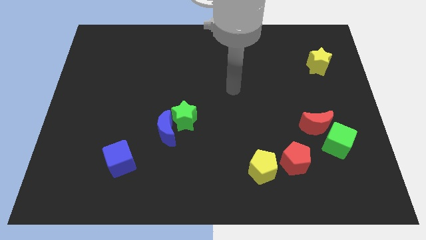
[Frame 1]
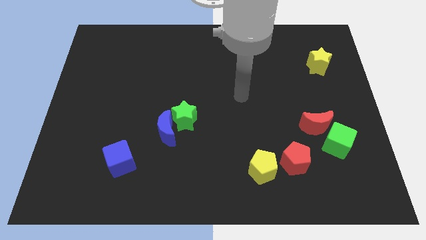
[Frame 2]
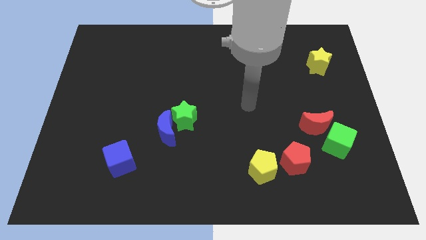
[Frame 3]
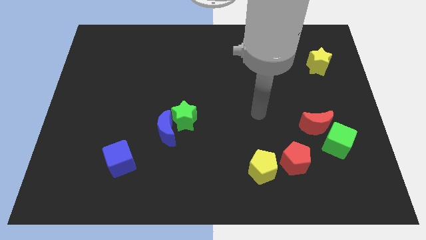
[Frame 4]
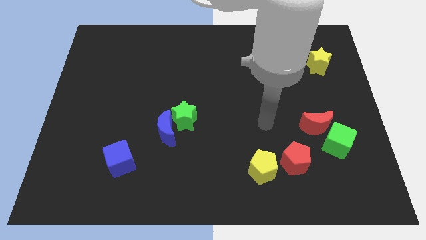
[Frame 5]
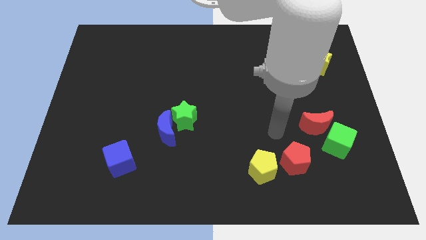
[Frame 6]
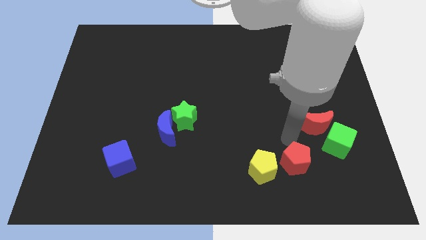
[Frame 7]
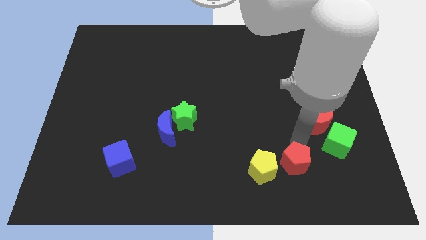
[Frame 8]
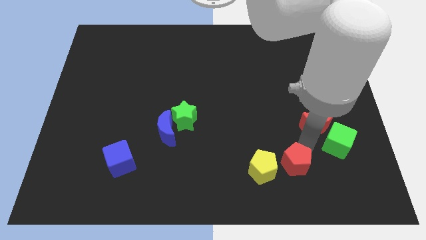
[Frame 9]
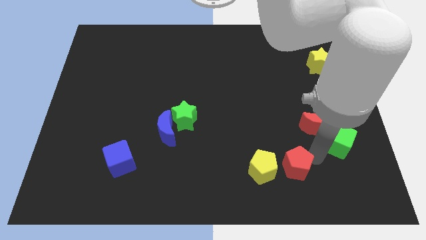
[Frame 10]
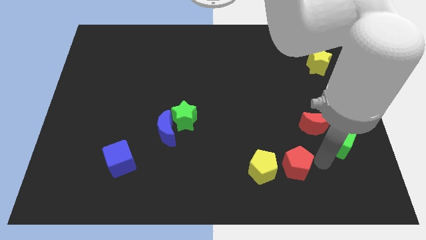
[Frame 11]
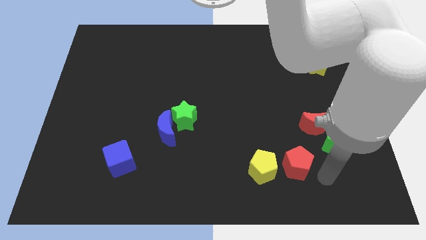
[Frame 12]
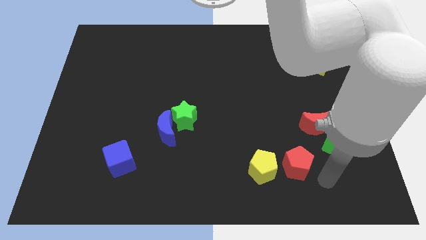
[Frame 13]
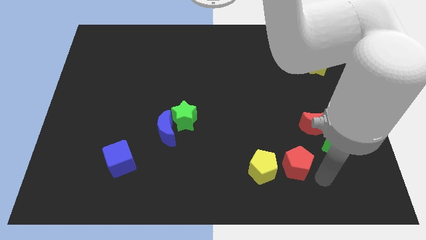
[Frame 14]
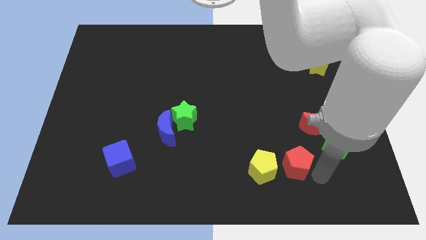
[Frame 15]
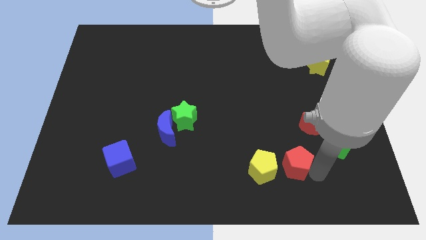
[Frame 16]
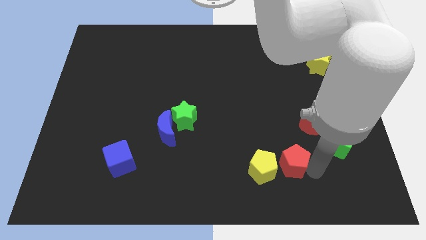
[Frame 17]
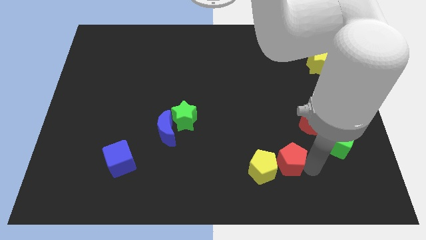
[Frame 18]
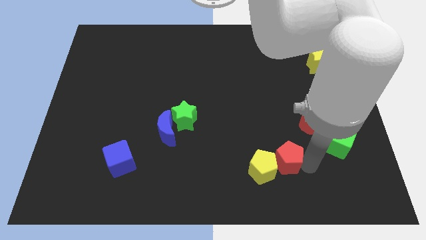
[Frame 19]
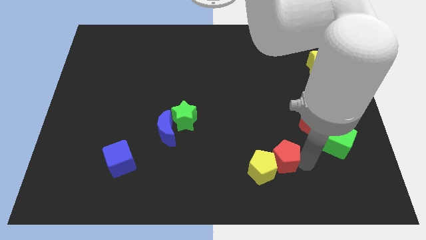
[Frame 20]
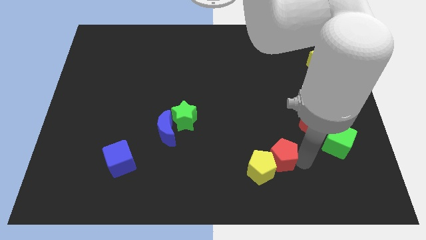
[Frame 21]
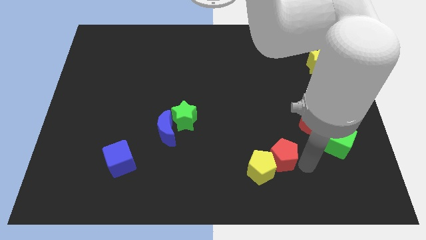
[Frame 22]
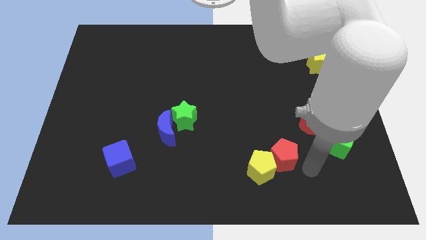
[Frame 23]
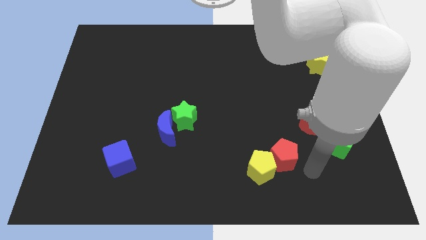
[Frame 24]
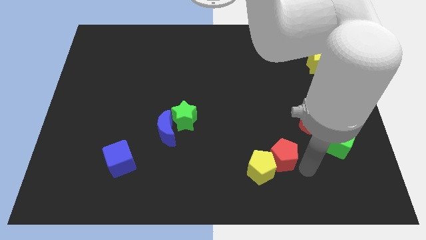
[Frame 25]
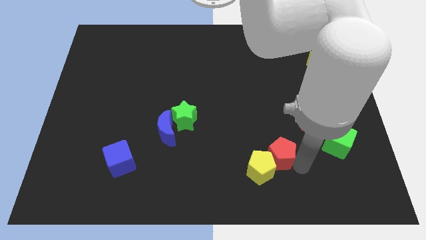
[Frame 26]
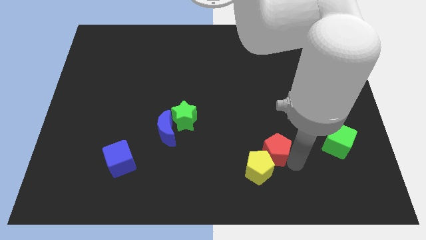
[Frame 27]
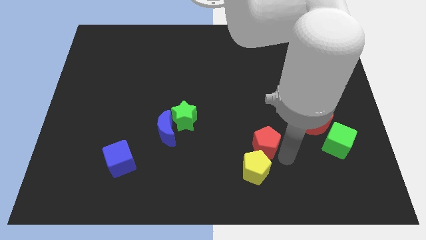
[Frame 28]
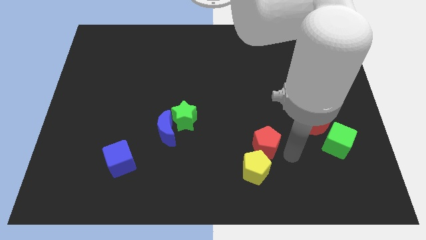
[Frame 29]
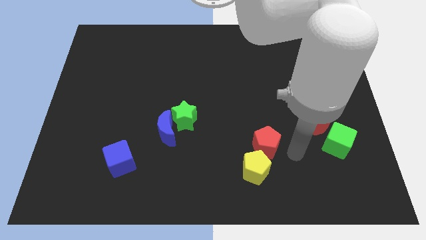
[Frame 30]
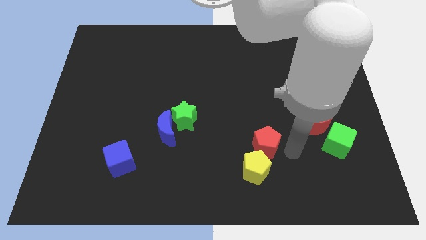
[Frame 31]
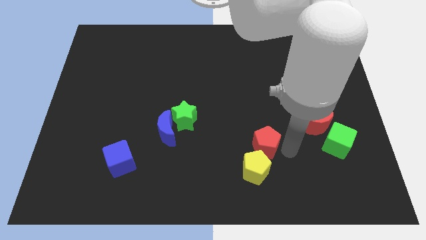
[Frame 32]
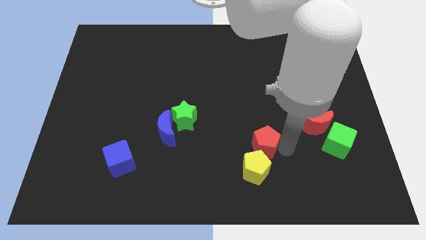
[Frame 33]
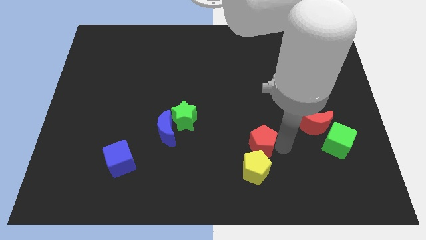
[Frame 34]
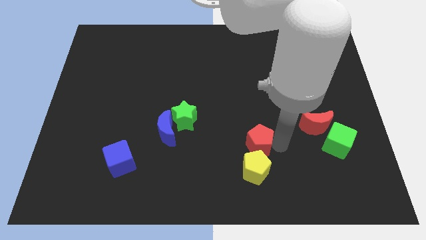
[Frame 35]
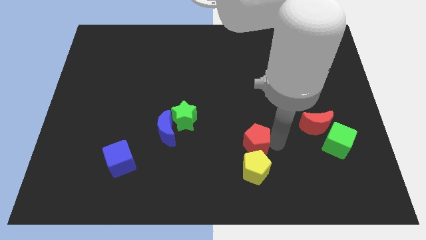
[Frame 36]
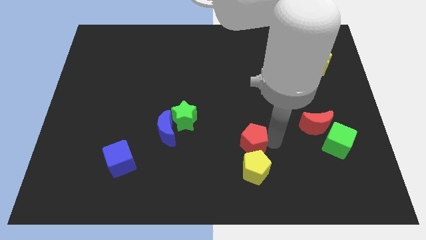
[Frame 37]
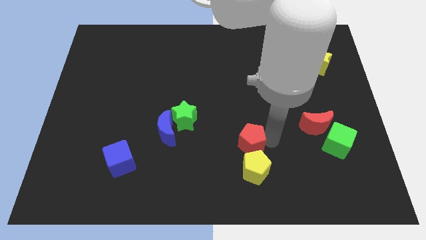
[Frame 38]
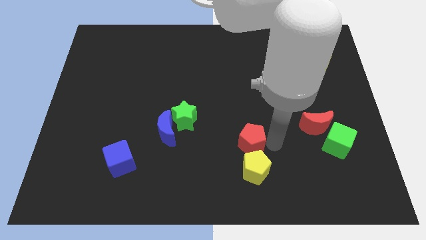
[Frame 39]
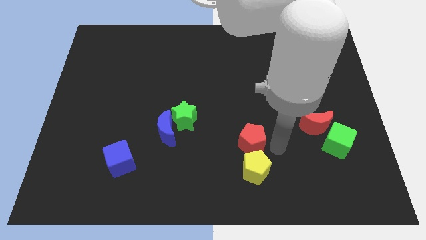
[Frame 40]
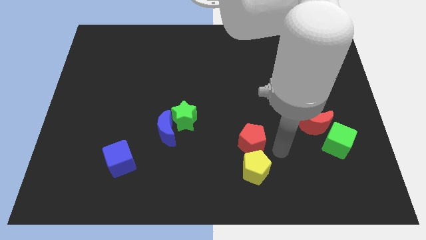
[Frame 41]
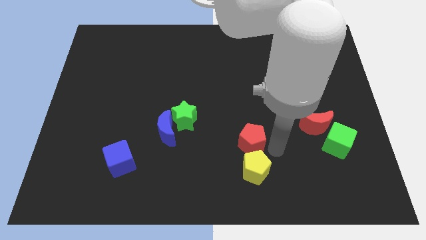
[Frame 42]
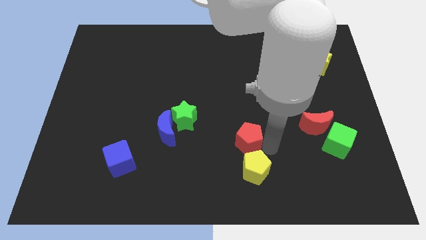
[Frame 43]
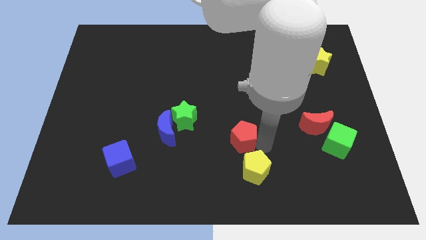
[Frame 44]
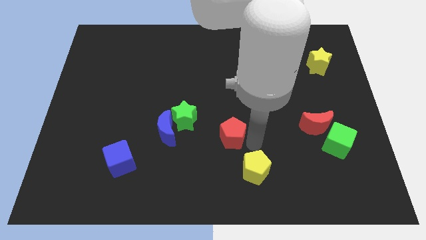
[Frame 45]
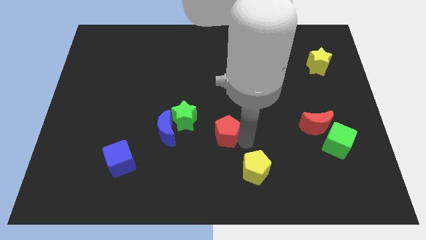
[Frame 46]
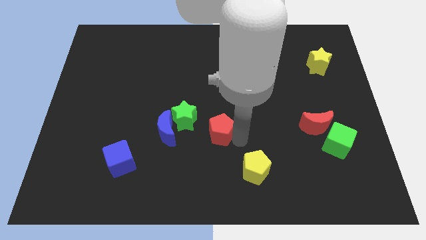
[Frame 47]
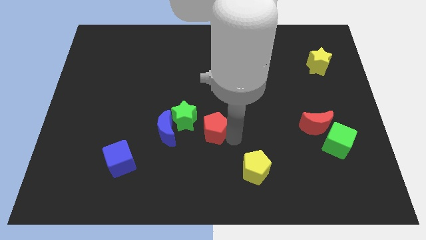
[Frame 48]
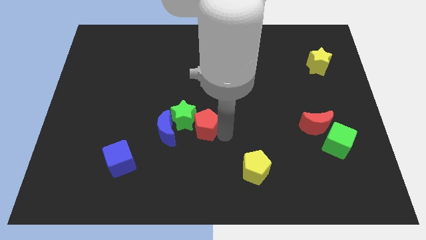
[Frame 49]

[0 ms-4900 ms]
slide the red pentagon next to the green star

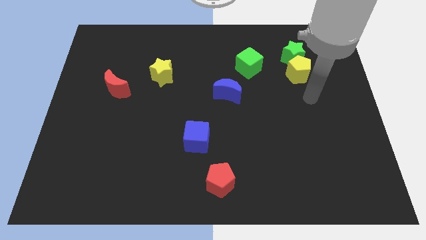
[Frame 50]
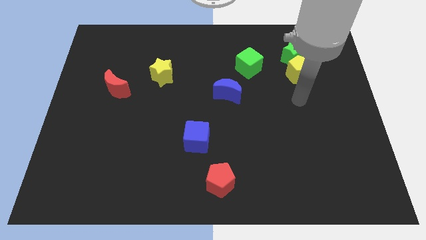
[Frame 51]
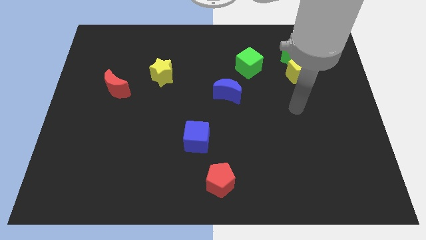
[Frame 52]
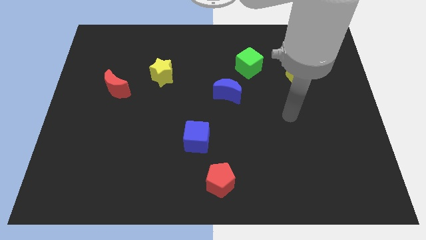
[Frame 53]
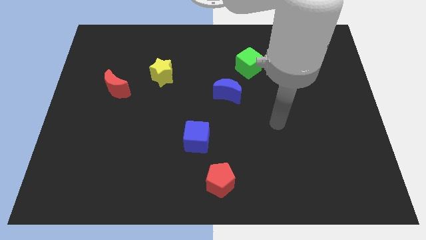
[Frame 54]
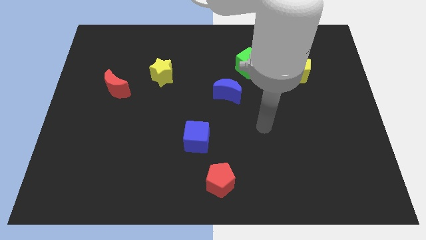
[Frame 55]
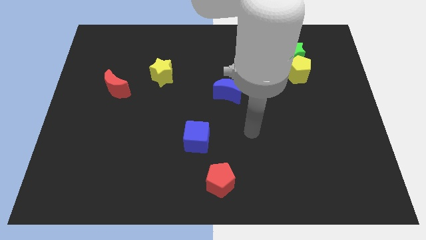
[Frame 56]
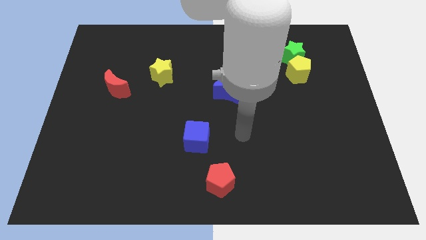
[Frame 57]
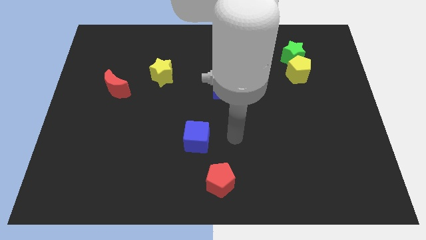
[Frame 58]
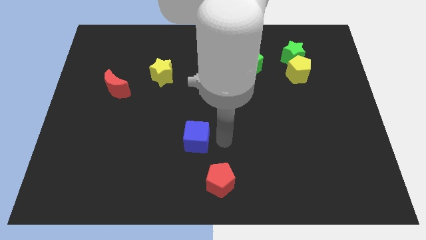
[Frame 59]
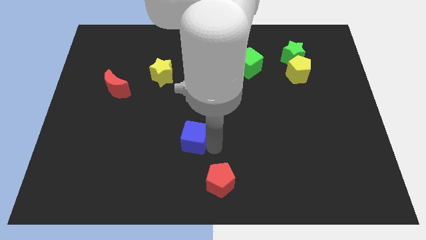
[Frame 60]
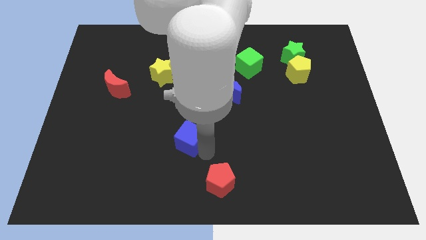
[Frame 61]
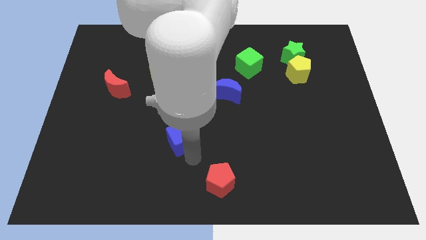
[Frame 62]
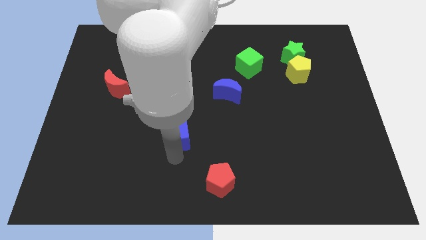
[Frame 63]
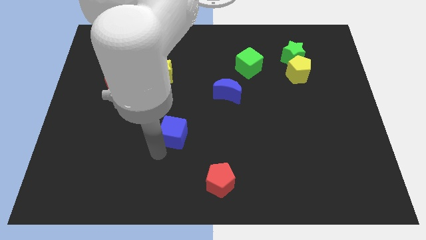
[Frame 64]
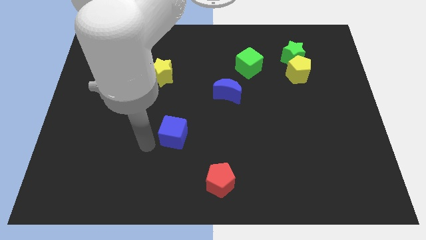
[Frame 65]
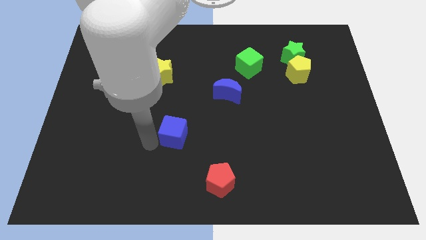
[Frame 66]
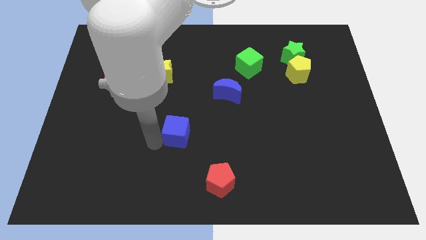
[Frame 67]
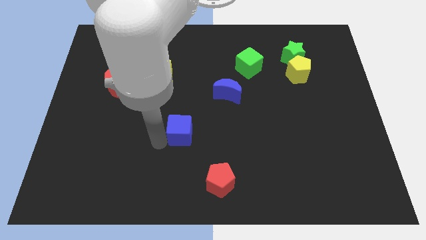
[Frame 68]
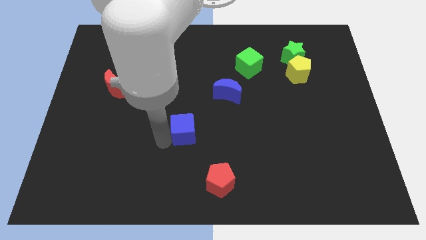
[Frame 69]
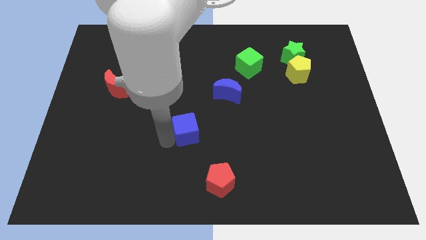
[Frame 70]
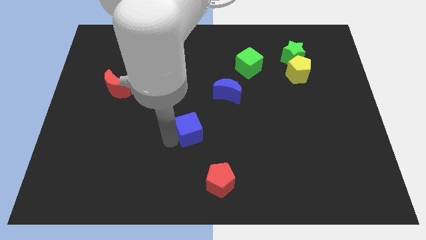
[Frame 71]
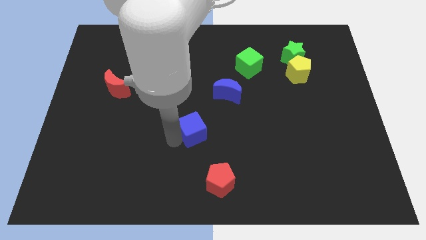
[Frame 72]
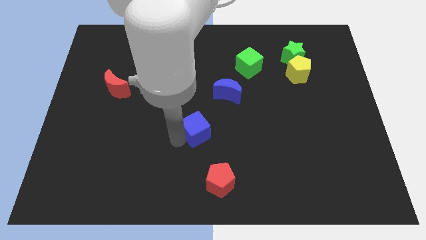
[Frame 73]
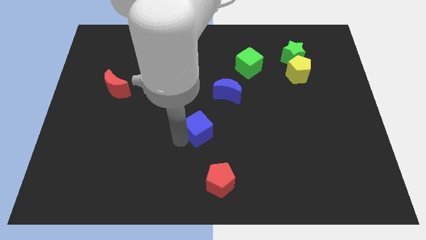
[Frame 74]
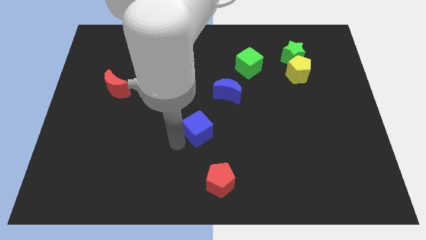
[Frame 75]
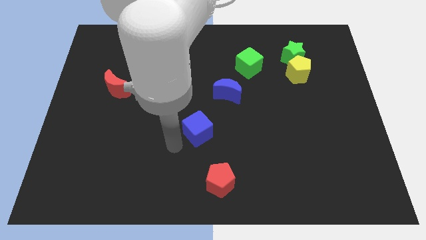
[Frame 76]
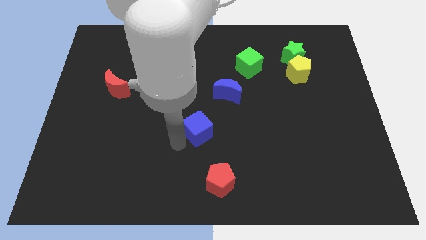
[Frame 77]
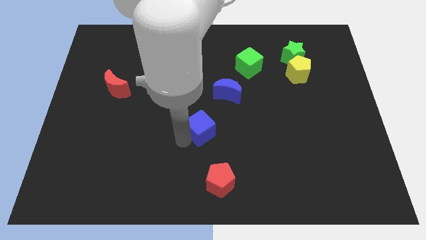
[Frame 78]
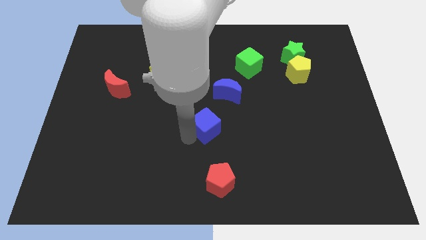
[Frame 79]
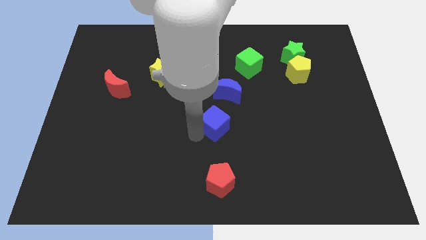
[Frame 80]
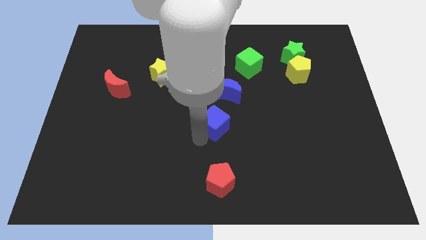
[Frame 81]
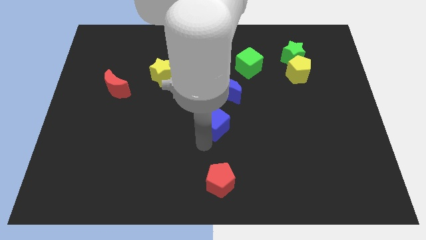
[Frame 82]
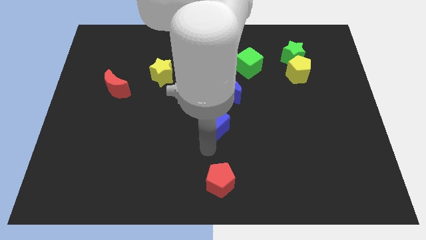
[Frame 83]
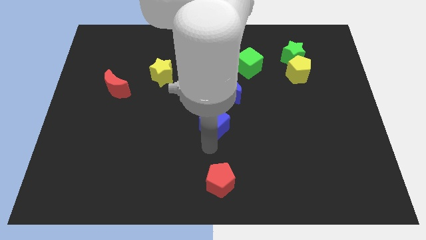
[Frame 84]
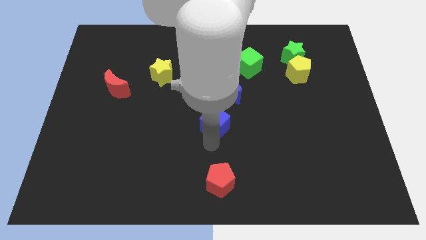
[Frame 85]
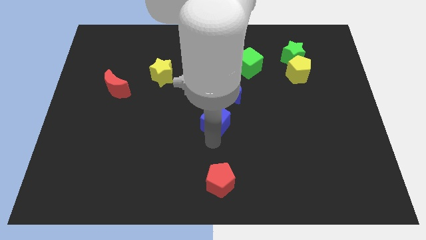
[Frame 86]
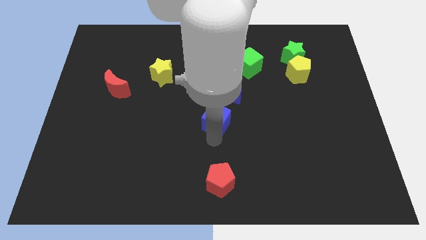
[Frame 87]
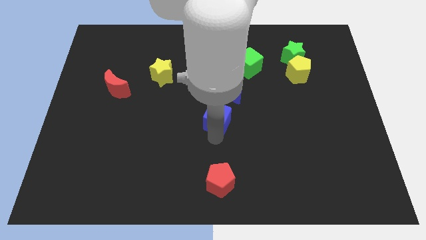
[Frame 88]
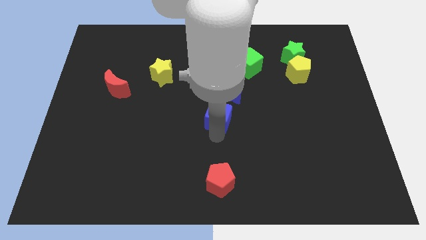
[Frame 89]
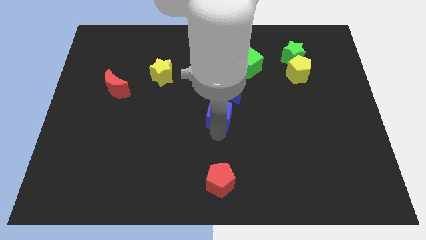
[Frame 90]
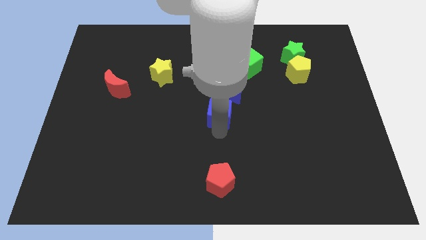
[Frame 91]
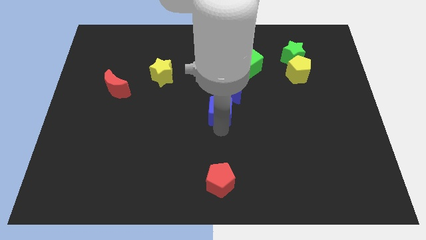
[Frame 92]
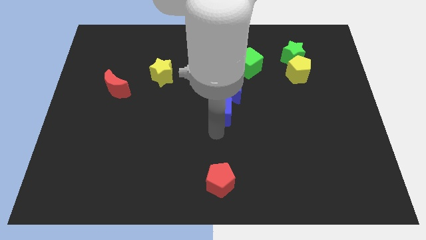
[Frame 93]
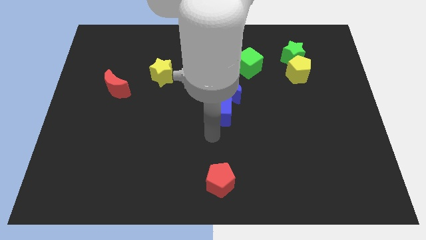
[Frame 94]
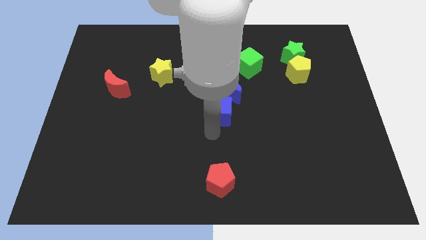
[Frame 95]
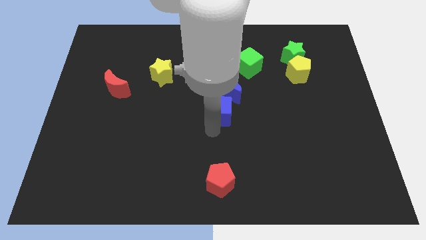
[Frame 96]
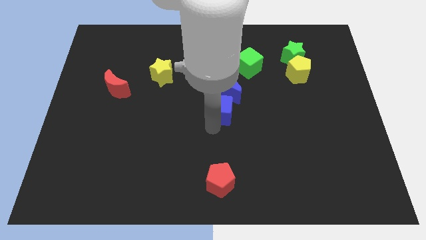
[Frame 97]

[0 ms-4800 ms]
move the blue cube towards the blue moon
